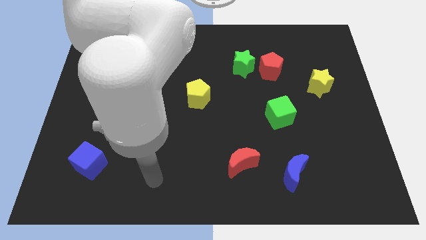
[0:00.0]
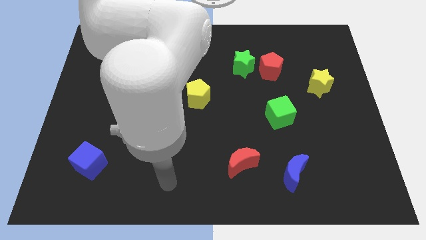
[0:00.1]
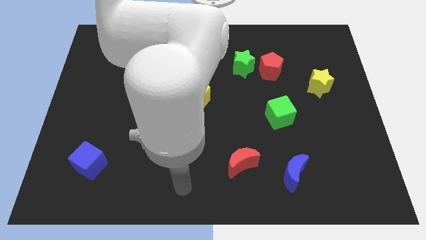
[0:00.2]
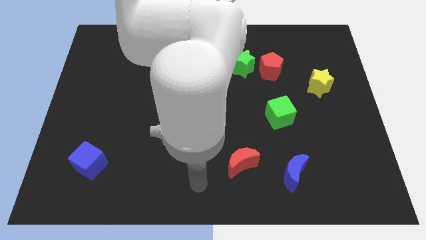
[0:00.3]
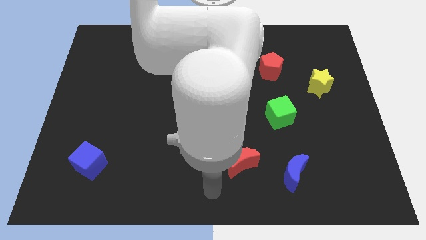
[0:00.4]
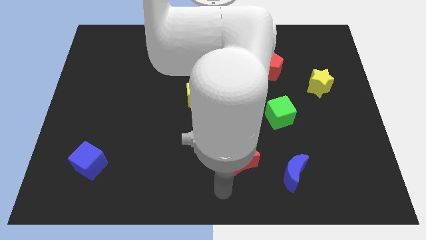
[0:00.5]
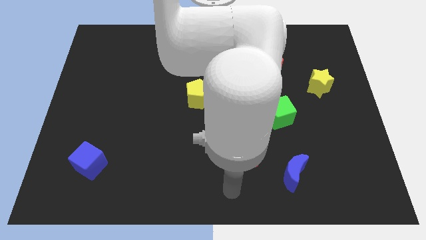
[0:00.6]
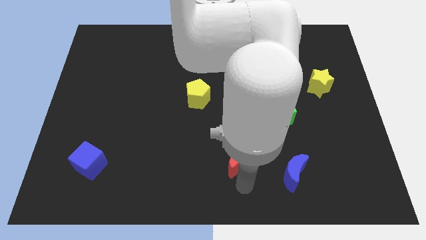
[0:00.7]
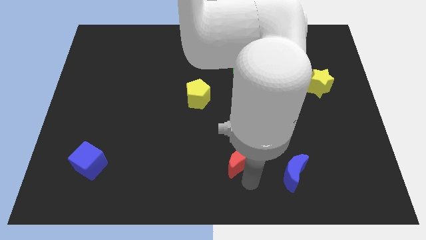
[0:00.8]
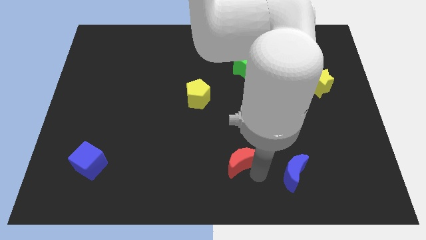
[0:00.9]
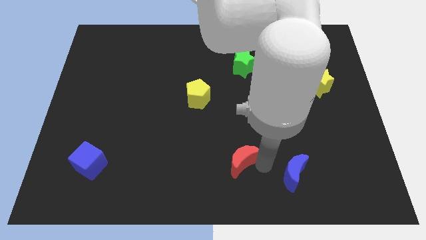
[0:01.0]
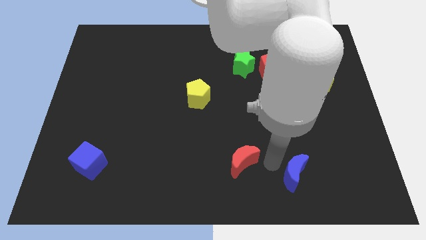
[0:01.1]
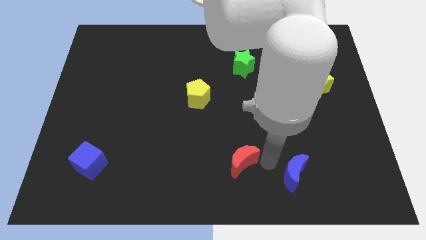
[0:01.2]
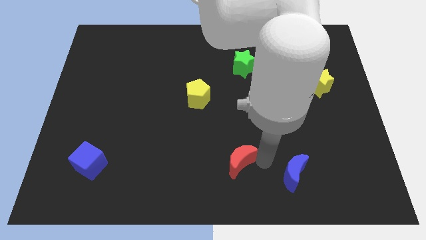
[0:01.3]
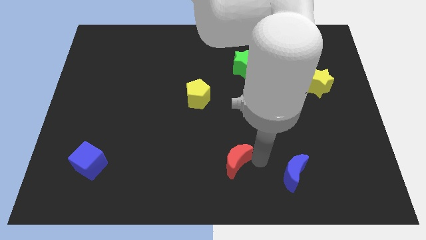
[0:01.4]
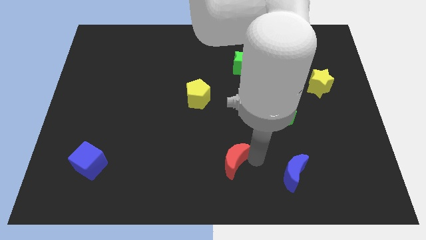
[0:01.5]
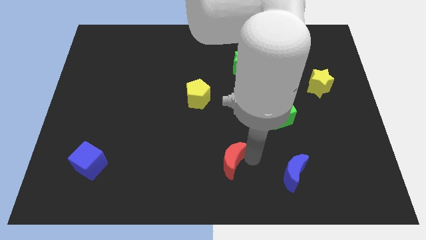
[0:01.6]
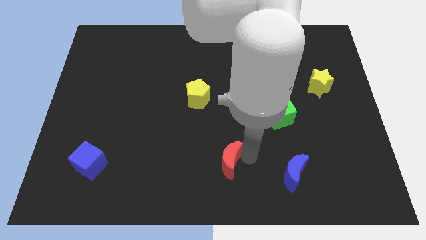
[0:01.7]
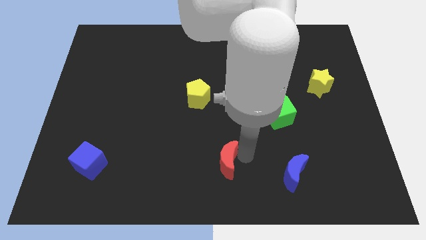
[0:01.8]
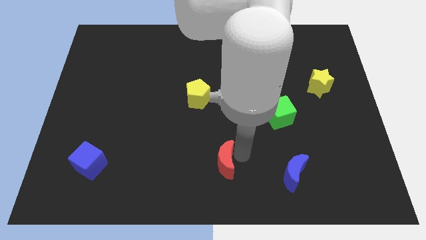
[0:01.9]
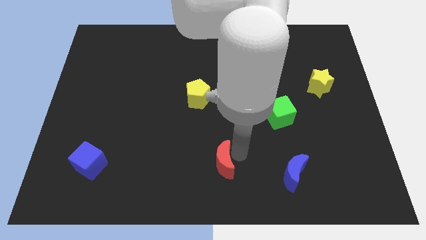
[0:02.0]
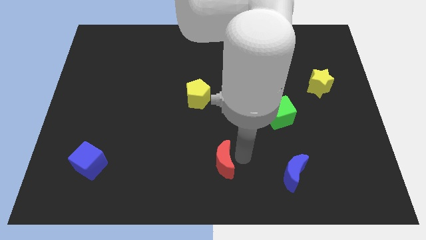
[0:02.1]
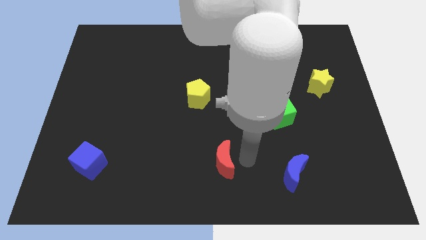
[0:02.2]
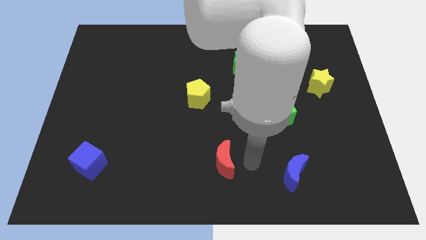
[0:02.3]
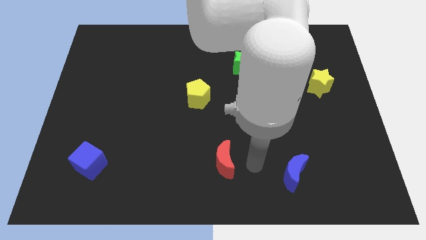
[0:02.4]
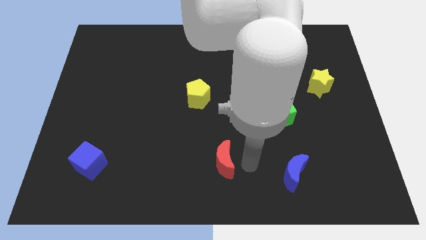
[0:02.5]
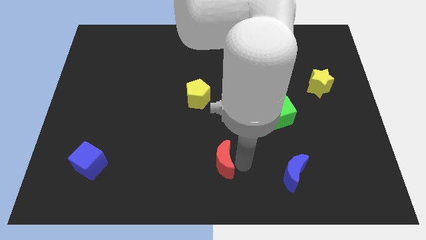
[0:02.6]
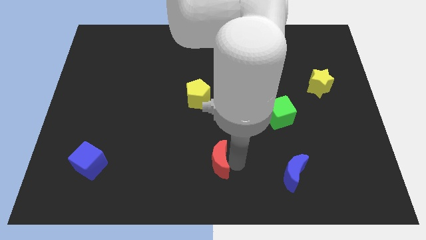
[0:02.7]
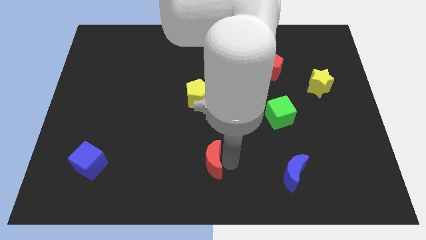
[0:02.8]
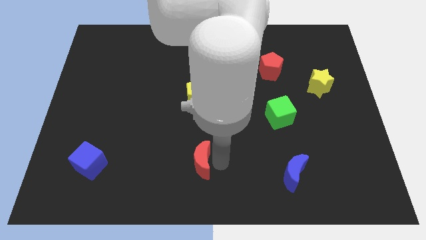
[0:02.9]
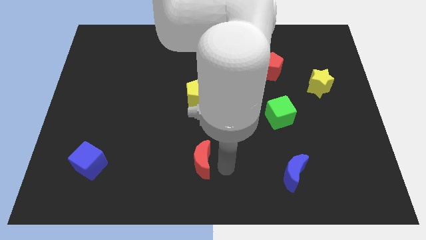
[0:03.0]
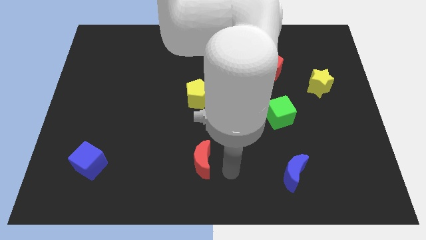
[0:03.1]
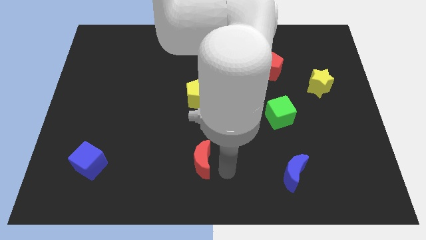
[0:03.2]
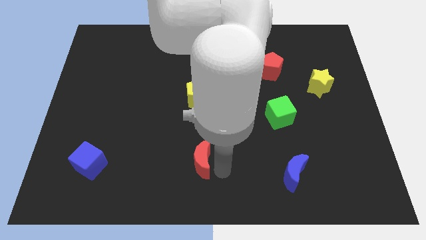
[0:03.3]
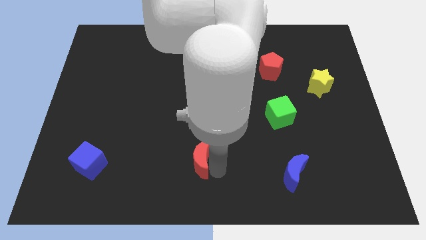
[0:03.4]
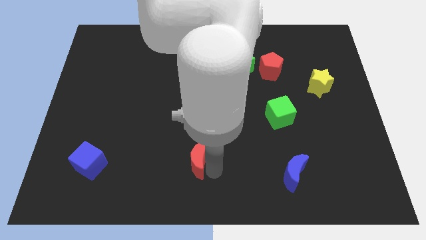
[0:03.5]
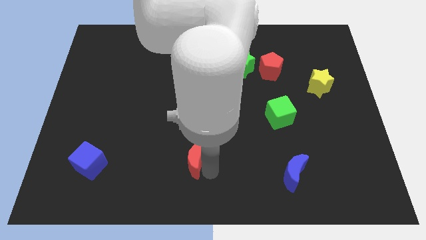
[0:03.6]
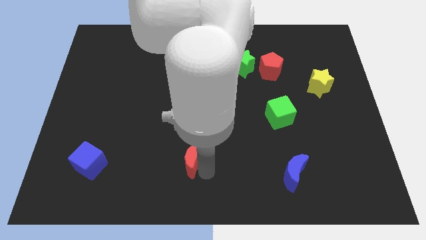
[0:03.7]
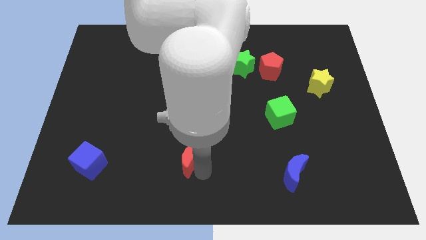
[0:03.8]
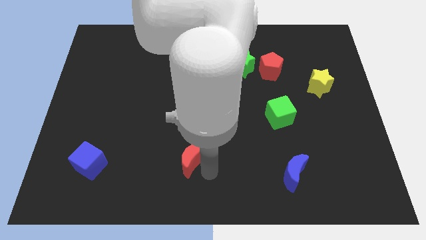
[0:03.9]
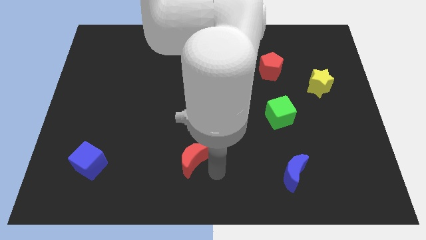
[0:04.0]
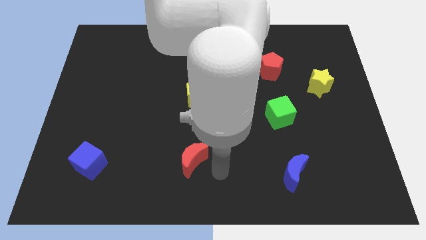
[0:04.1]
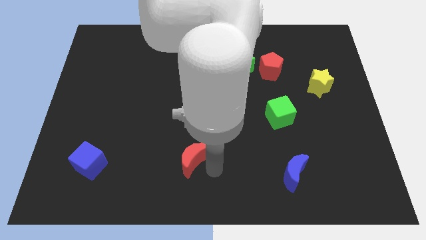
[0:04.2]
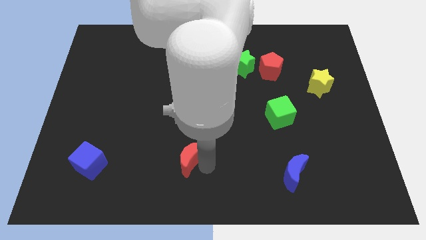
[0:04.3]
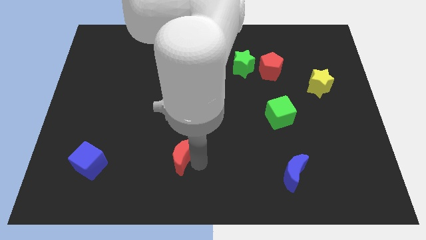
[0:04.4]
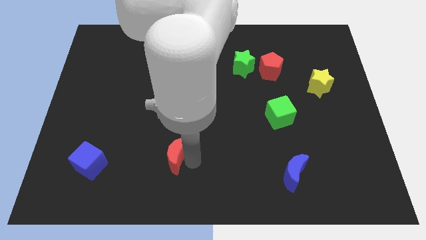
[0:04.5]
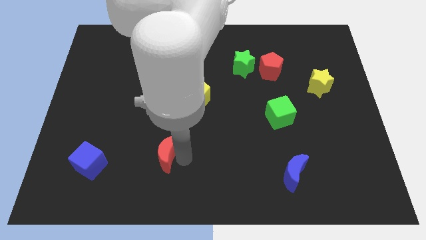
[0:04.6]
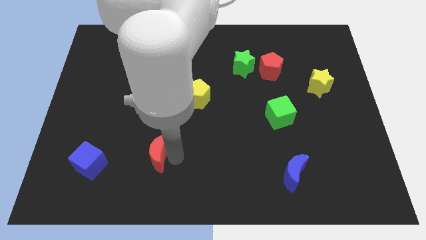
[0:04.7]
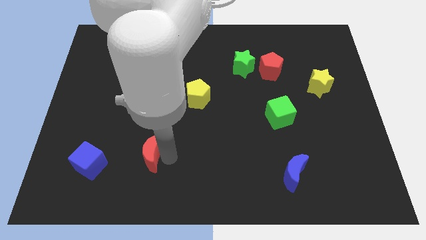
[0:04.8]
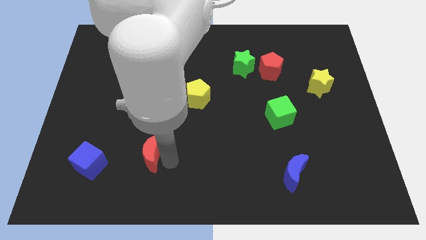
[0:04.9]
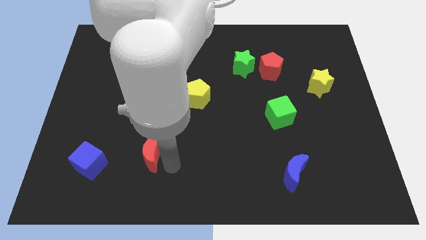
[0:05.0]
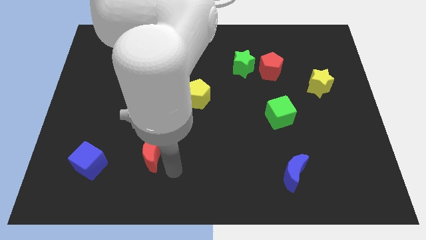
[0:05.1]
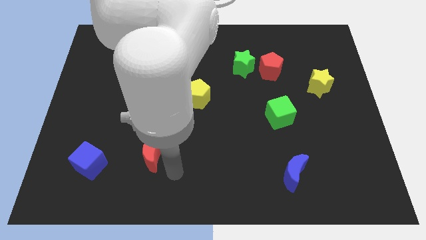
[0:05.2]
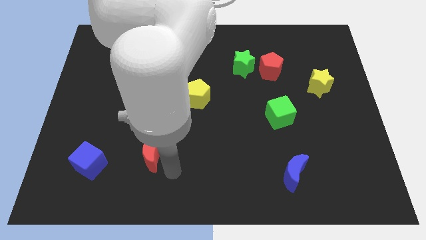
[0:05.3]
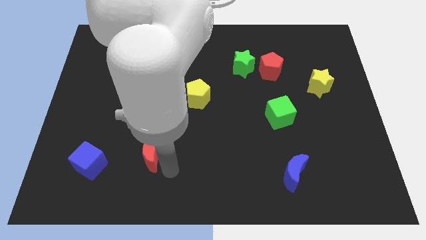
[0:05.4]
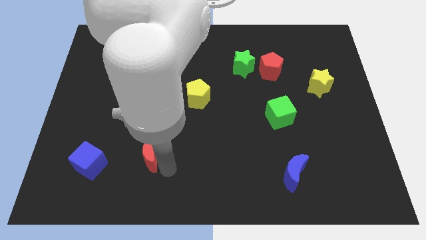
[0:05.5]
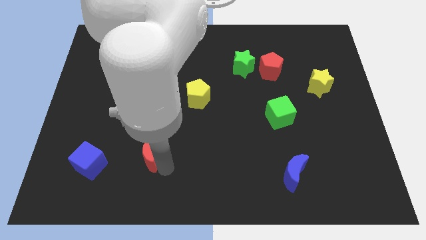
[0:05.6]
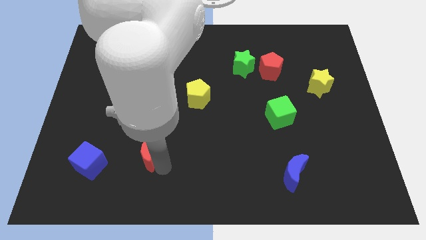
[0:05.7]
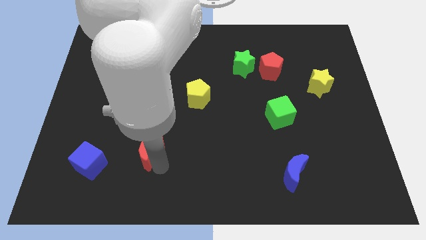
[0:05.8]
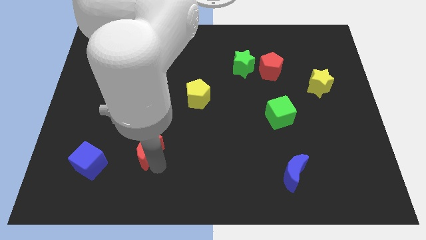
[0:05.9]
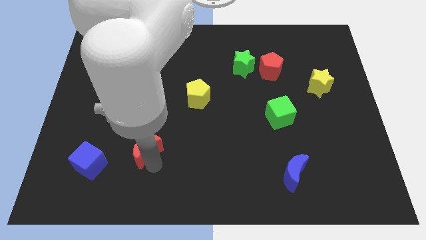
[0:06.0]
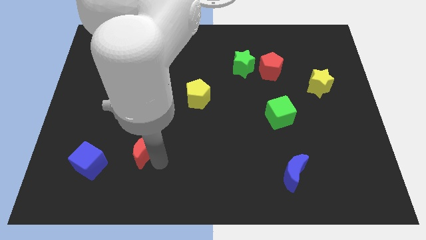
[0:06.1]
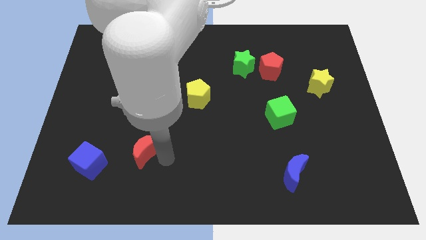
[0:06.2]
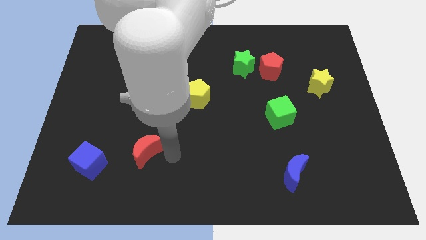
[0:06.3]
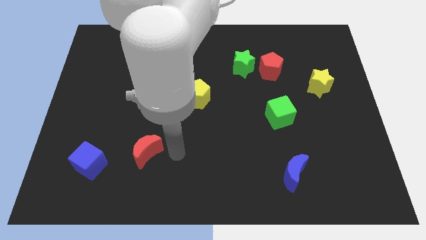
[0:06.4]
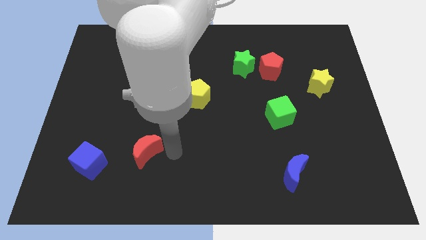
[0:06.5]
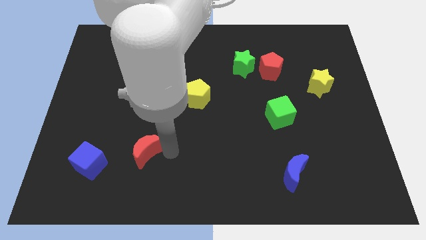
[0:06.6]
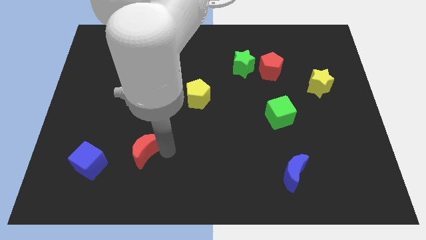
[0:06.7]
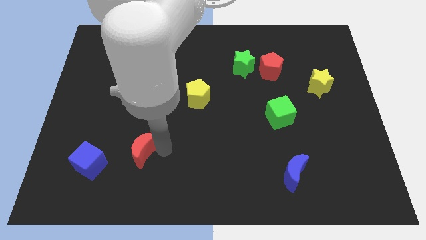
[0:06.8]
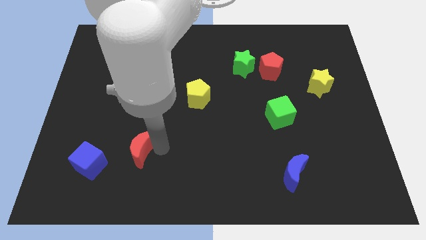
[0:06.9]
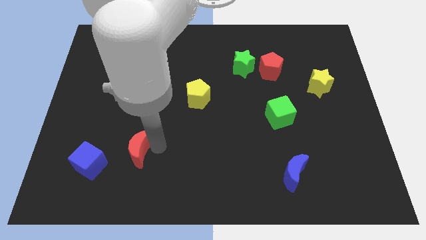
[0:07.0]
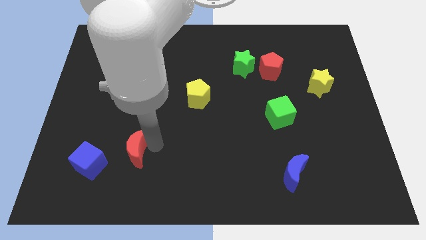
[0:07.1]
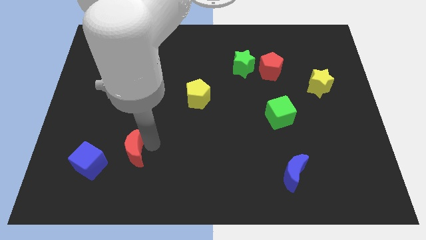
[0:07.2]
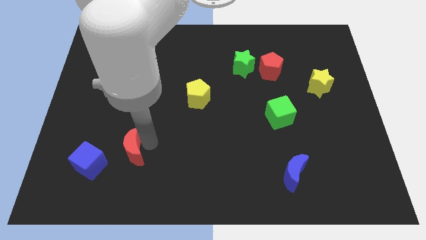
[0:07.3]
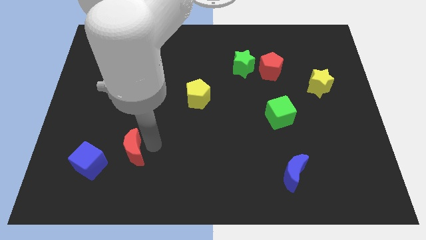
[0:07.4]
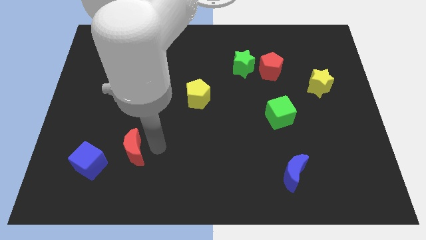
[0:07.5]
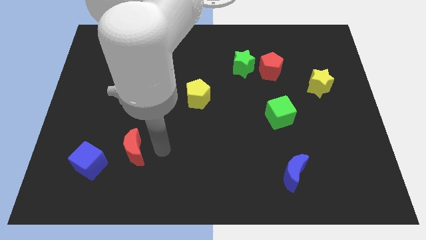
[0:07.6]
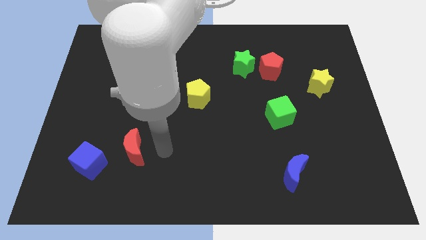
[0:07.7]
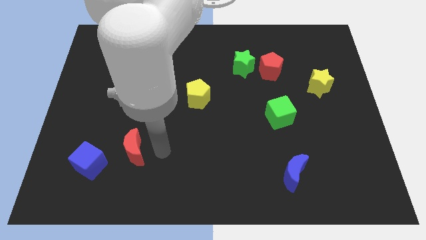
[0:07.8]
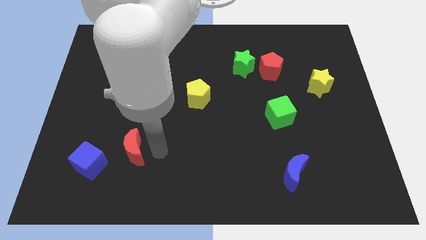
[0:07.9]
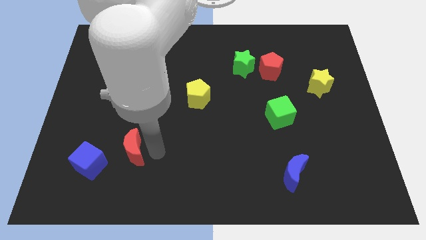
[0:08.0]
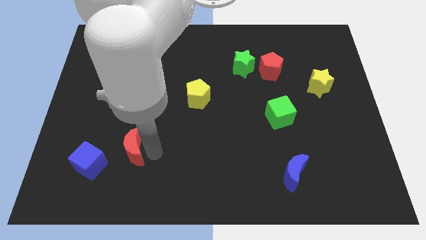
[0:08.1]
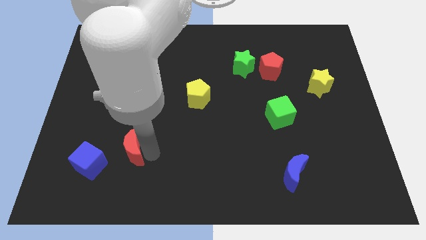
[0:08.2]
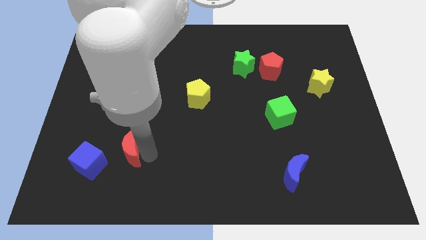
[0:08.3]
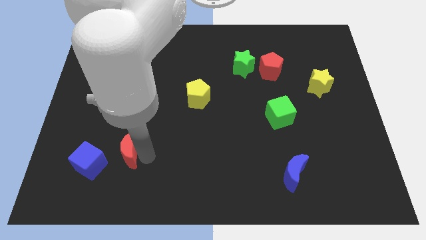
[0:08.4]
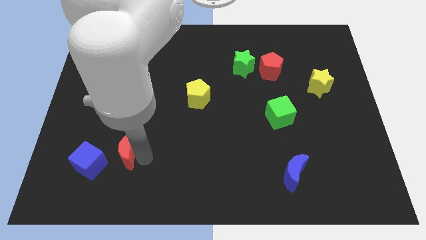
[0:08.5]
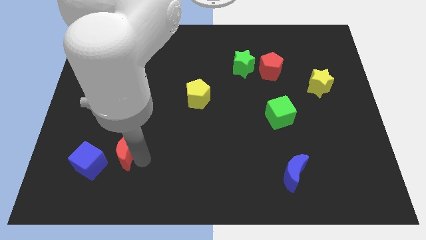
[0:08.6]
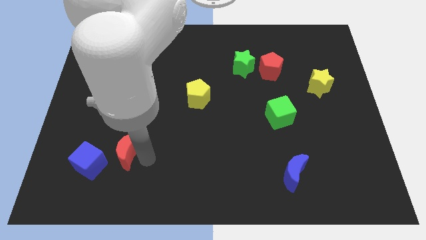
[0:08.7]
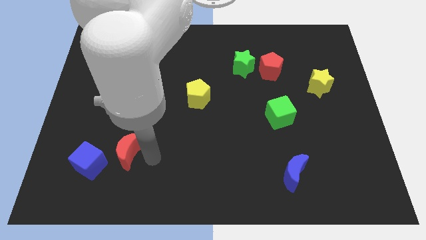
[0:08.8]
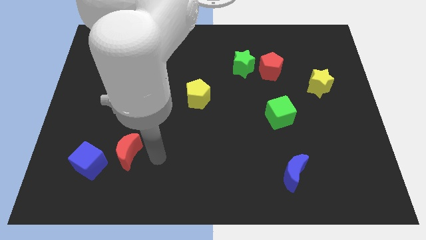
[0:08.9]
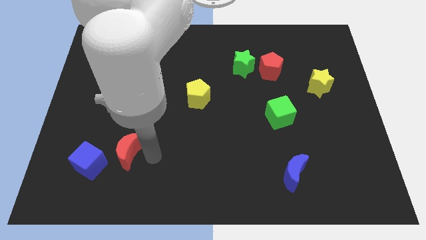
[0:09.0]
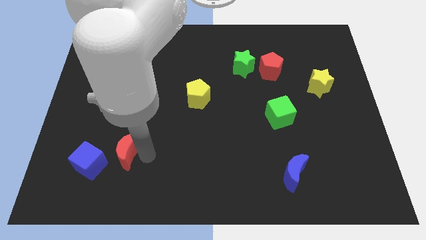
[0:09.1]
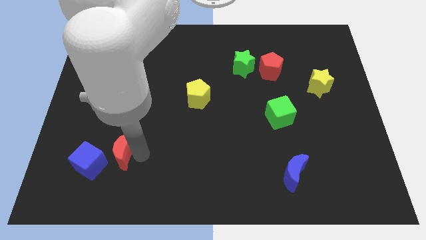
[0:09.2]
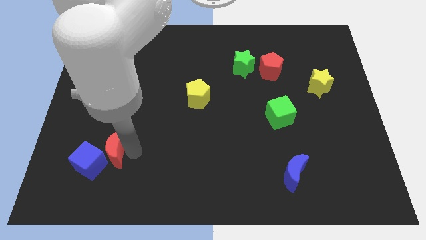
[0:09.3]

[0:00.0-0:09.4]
put the red moon towards the blue cube
